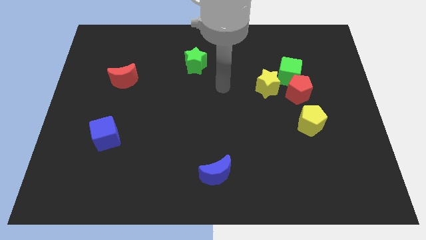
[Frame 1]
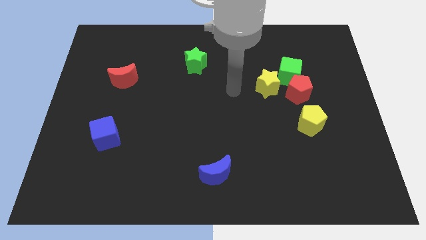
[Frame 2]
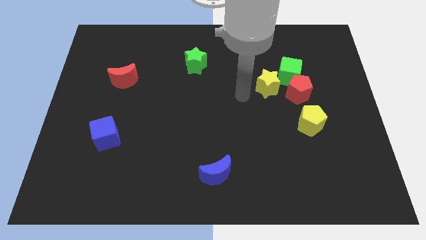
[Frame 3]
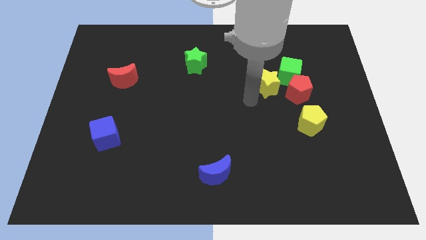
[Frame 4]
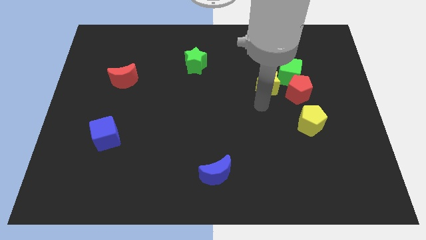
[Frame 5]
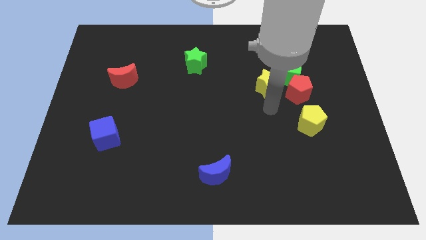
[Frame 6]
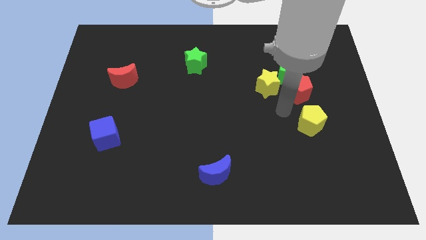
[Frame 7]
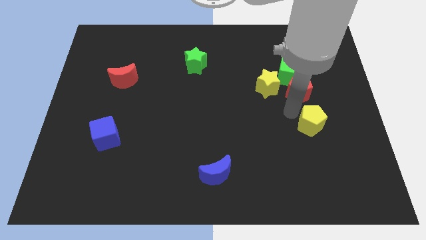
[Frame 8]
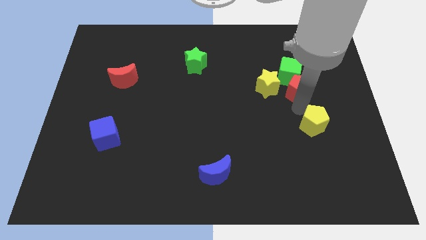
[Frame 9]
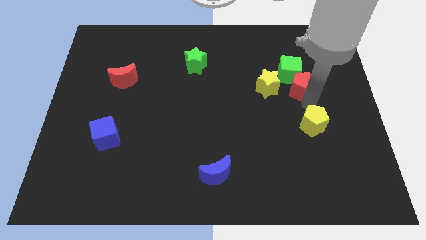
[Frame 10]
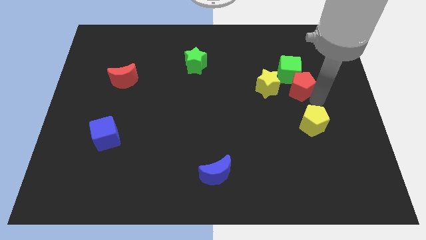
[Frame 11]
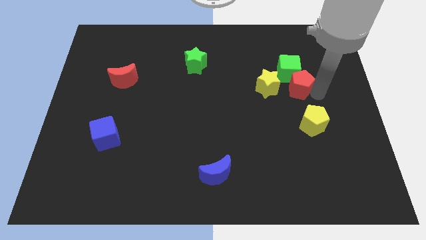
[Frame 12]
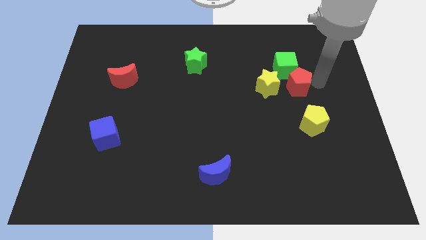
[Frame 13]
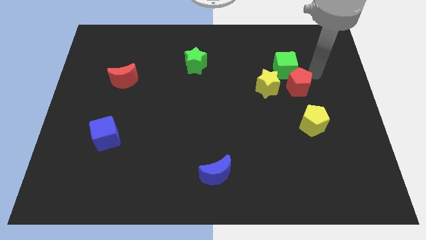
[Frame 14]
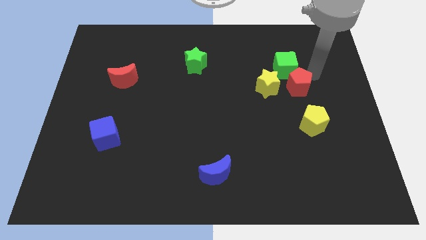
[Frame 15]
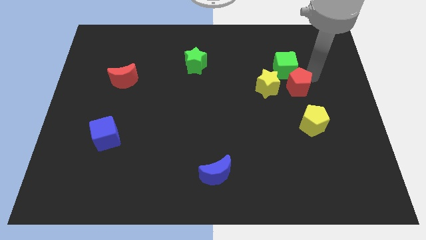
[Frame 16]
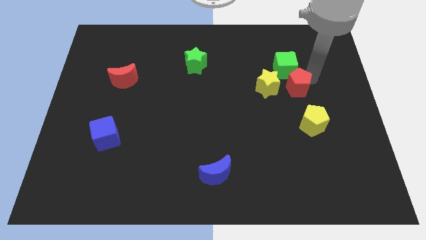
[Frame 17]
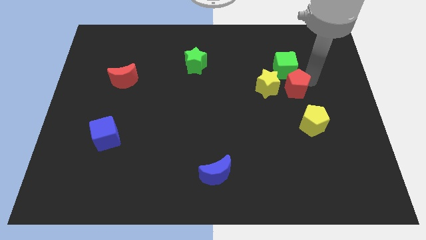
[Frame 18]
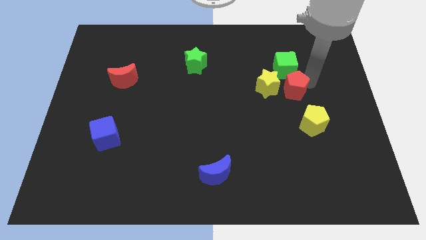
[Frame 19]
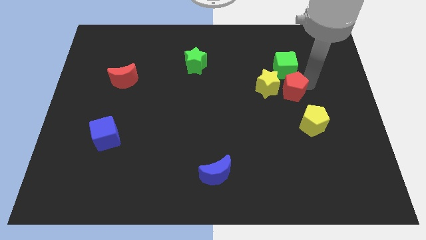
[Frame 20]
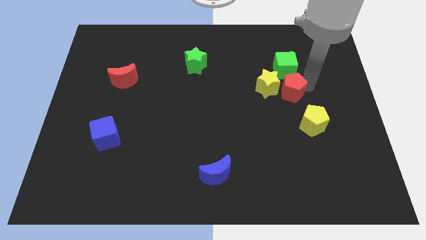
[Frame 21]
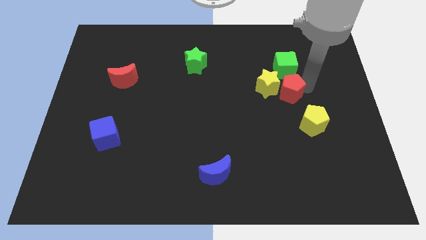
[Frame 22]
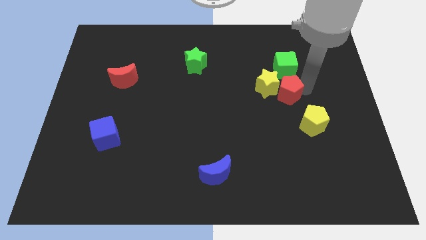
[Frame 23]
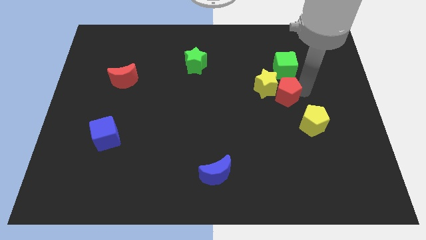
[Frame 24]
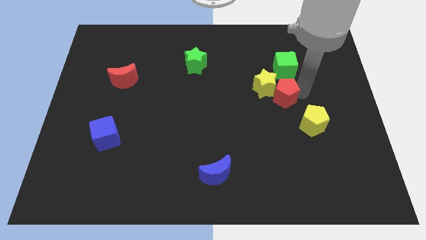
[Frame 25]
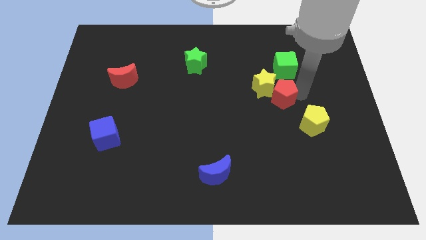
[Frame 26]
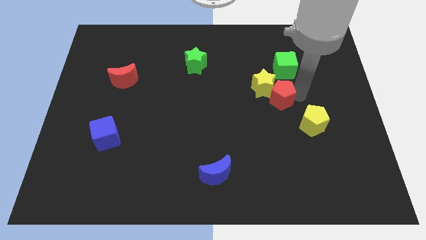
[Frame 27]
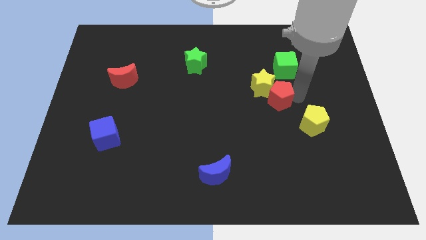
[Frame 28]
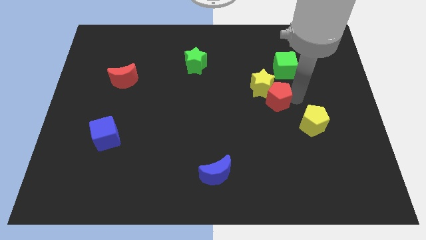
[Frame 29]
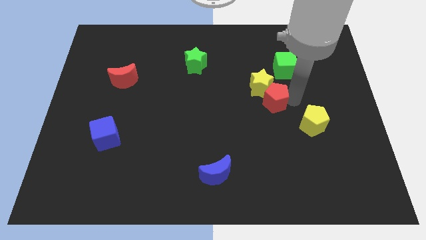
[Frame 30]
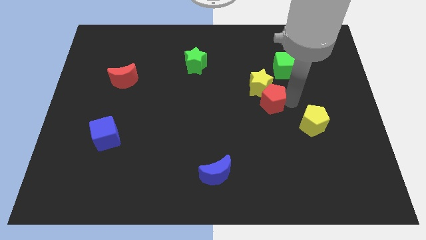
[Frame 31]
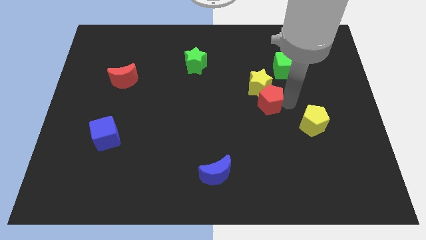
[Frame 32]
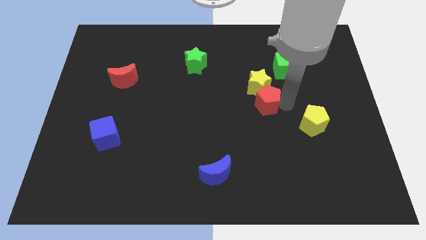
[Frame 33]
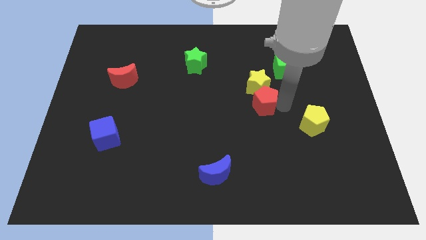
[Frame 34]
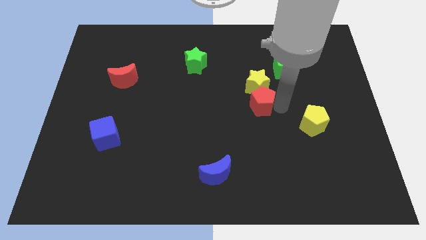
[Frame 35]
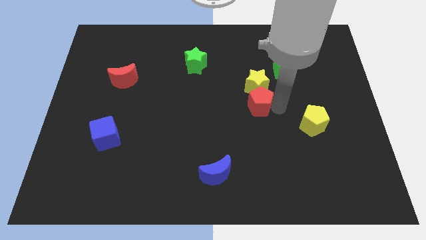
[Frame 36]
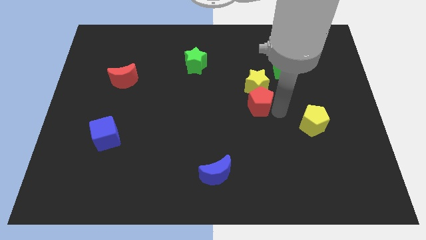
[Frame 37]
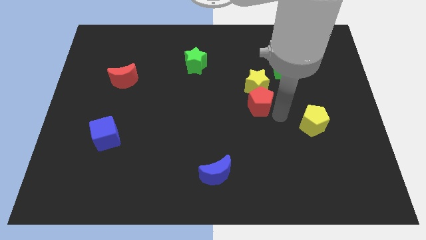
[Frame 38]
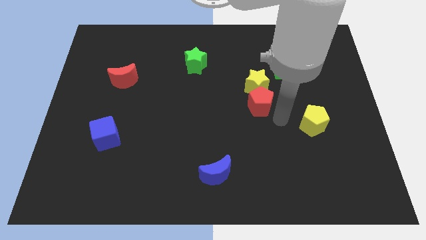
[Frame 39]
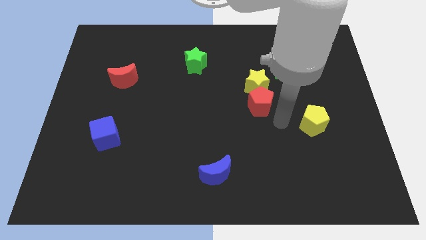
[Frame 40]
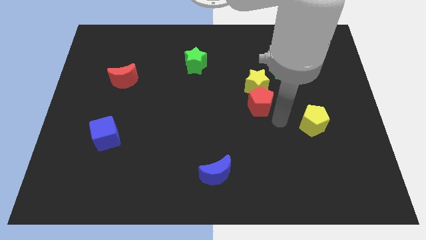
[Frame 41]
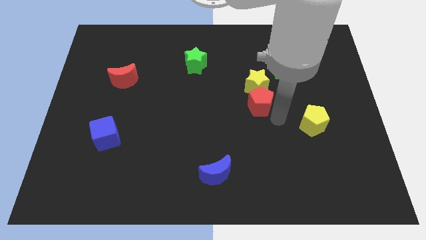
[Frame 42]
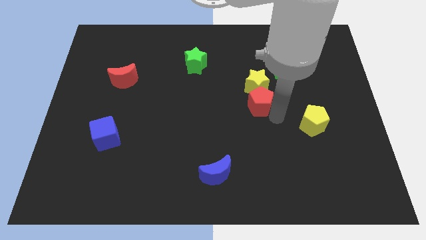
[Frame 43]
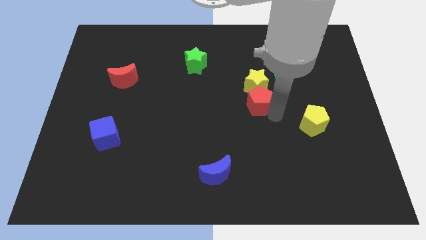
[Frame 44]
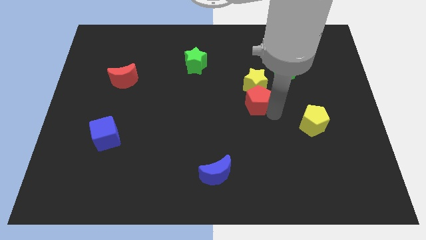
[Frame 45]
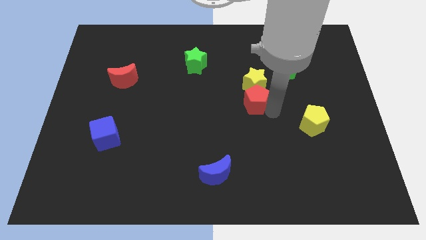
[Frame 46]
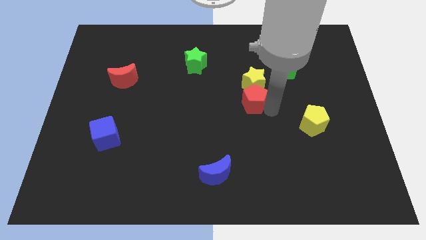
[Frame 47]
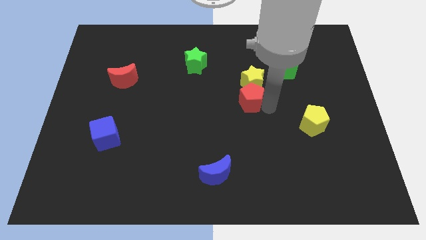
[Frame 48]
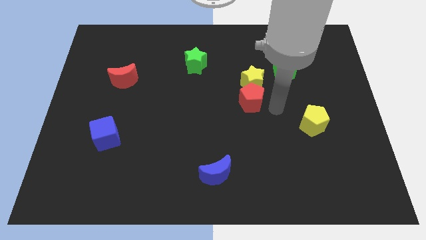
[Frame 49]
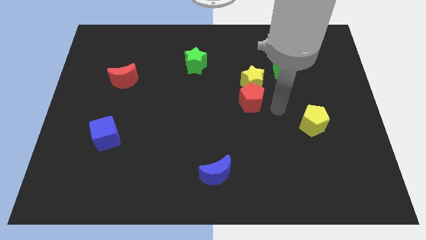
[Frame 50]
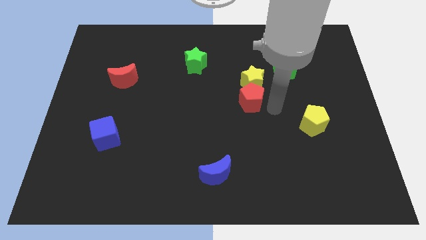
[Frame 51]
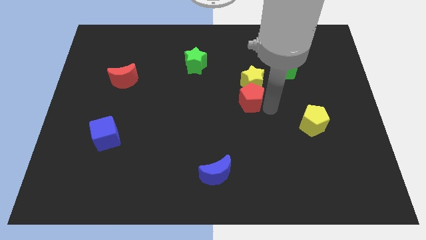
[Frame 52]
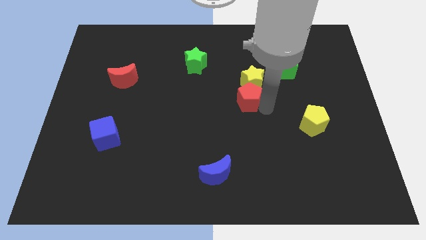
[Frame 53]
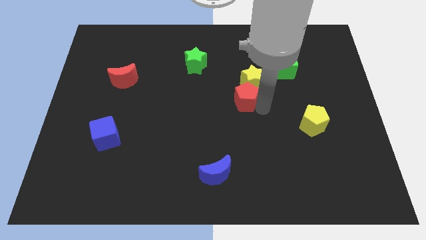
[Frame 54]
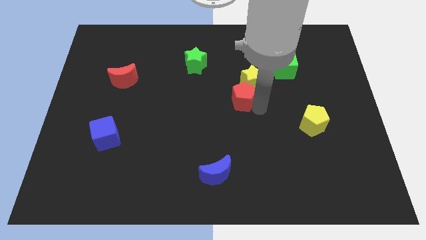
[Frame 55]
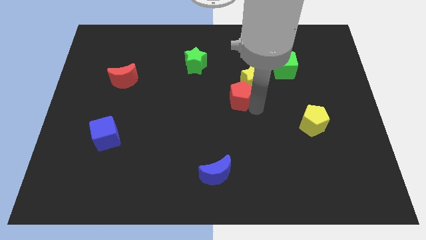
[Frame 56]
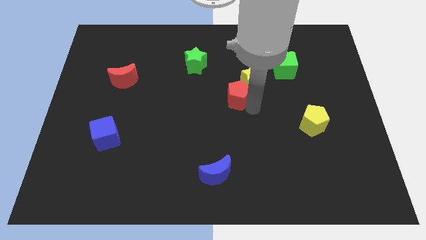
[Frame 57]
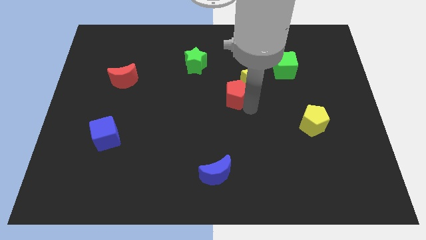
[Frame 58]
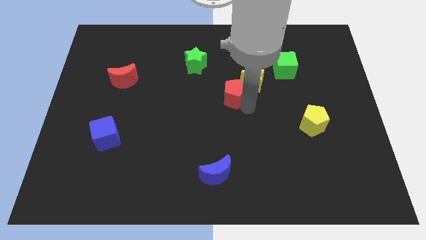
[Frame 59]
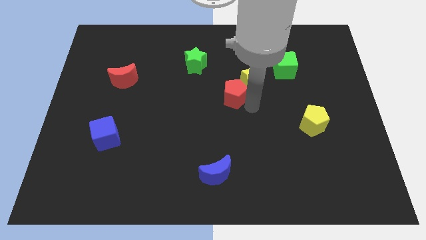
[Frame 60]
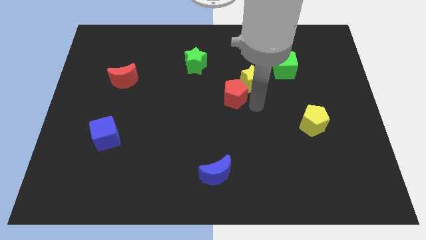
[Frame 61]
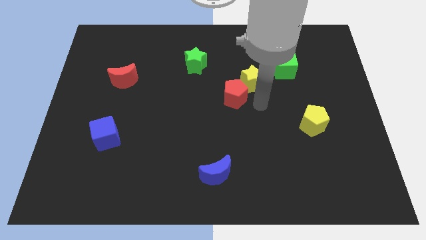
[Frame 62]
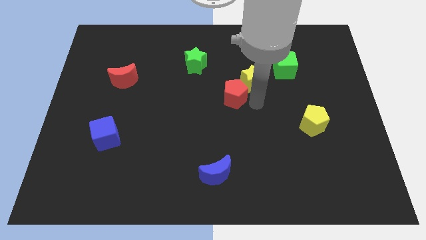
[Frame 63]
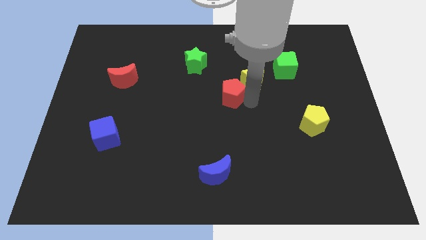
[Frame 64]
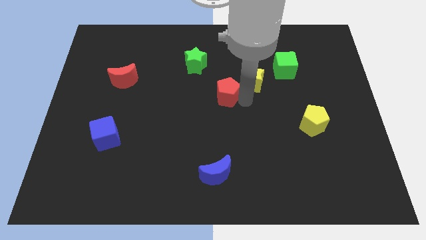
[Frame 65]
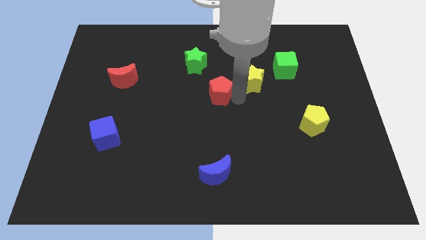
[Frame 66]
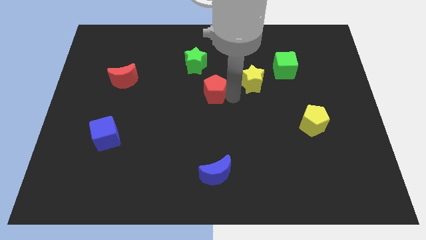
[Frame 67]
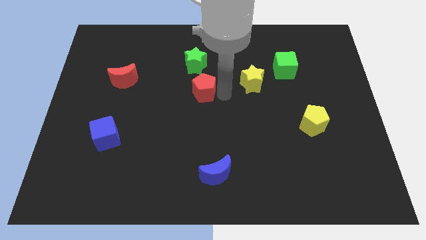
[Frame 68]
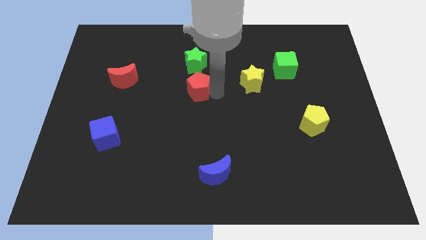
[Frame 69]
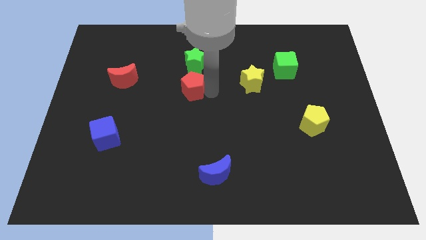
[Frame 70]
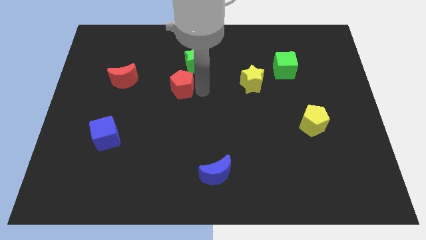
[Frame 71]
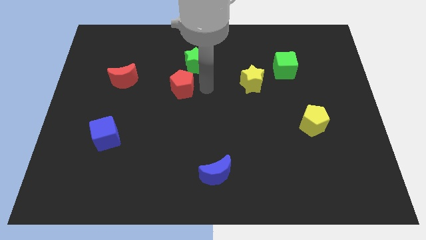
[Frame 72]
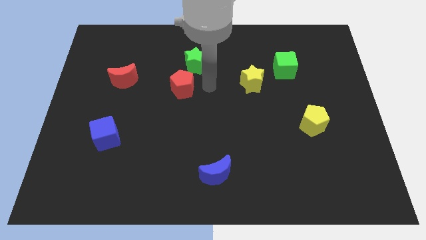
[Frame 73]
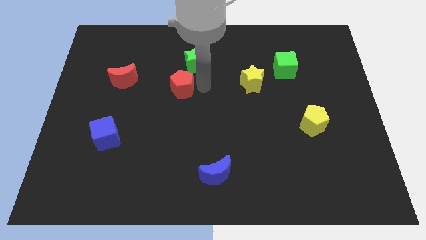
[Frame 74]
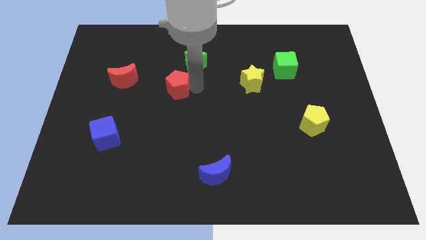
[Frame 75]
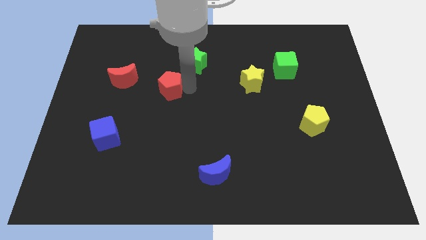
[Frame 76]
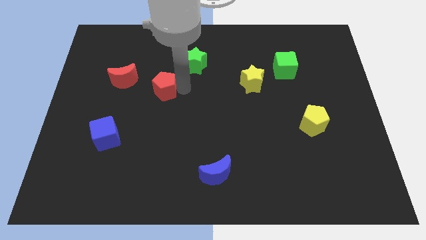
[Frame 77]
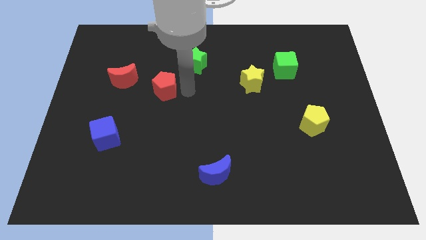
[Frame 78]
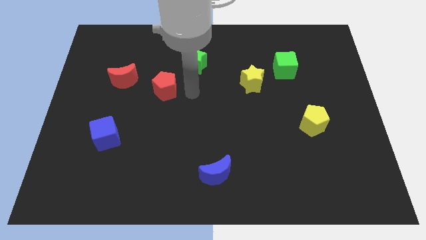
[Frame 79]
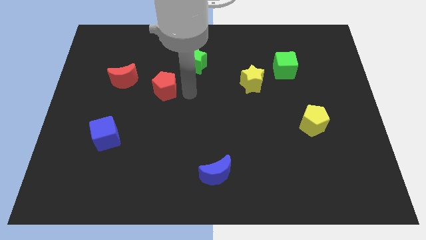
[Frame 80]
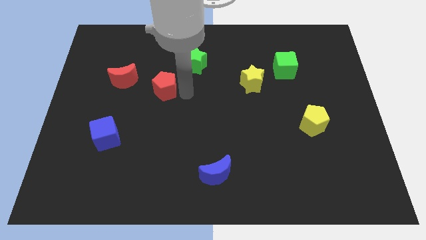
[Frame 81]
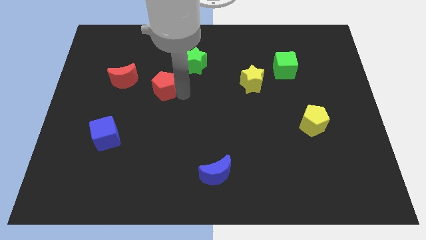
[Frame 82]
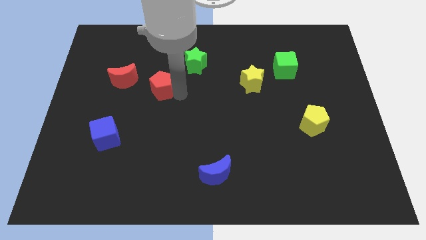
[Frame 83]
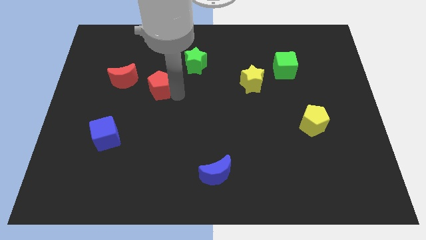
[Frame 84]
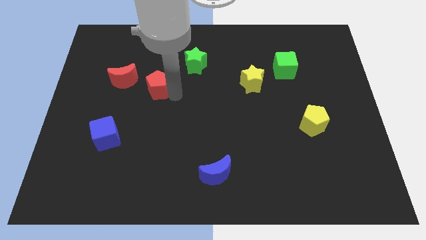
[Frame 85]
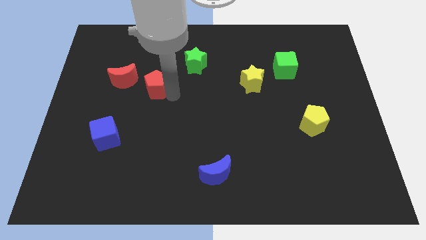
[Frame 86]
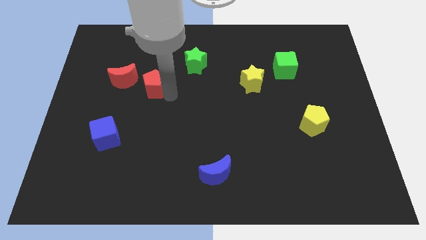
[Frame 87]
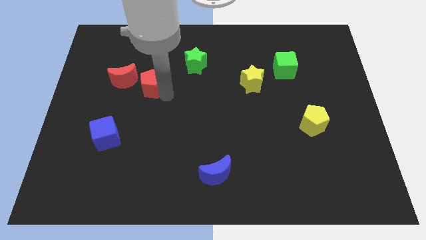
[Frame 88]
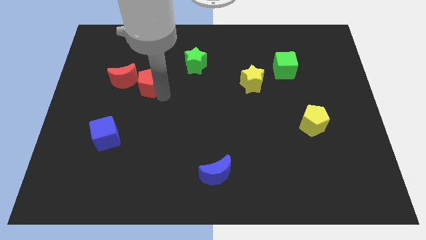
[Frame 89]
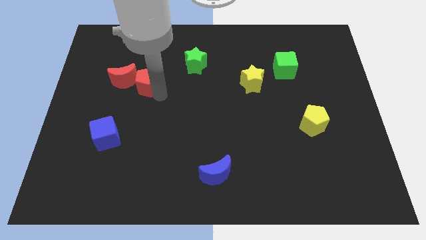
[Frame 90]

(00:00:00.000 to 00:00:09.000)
slide the red pentagon next to the red moon
